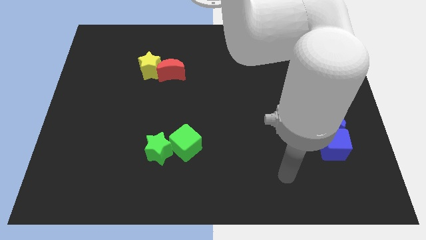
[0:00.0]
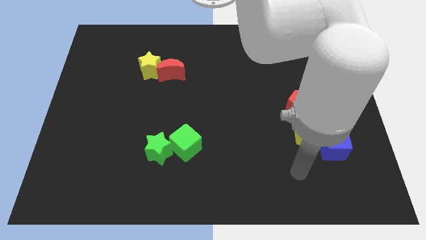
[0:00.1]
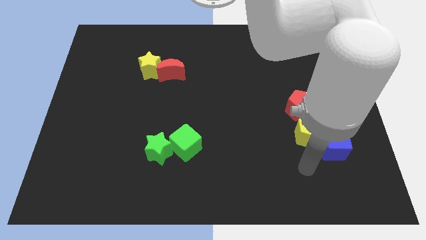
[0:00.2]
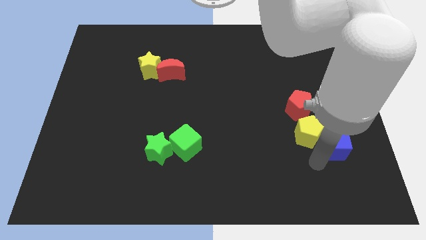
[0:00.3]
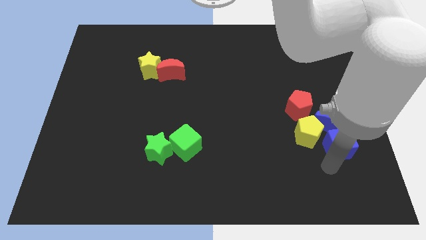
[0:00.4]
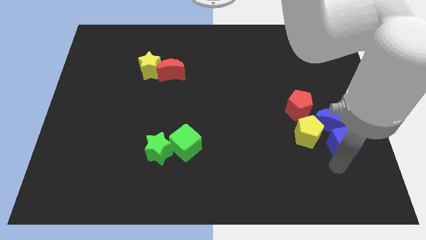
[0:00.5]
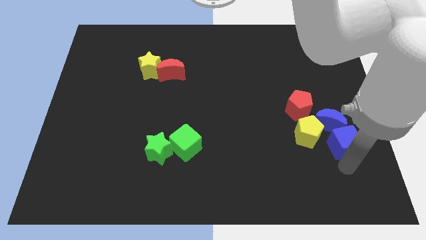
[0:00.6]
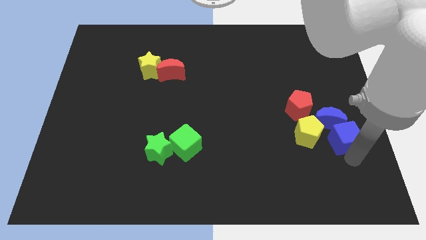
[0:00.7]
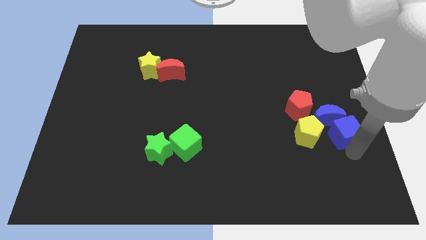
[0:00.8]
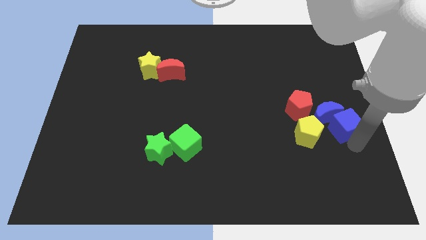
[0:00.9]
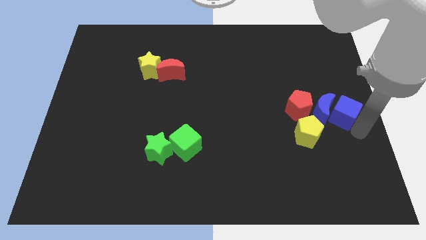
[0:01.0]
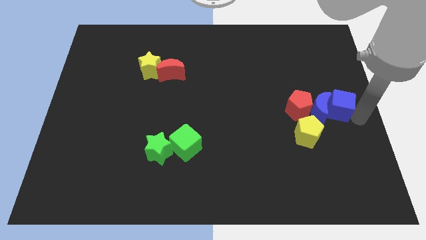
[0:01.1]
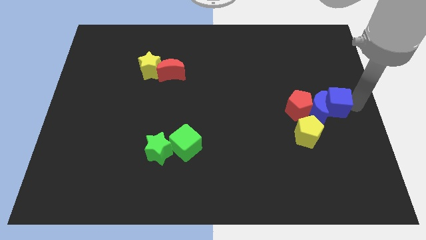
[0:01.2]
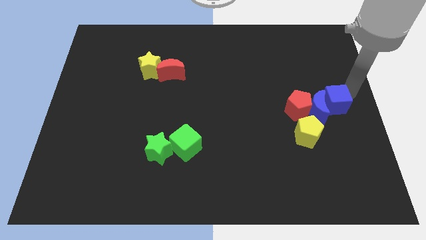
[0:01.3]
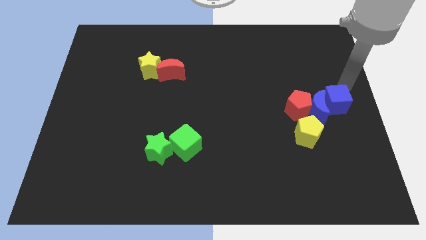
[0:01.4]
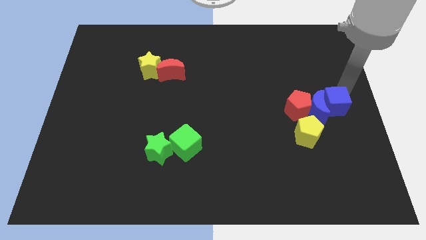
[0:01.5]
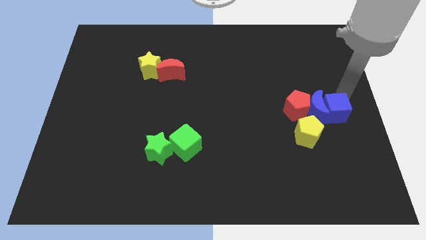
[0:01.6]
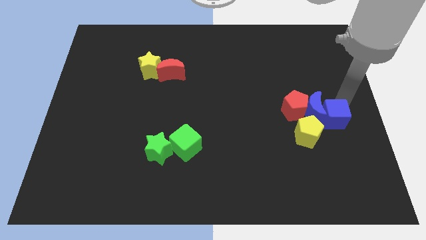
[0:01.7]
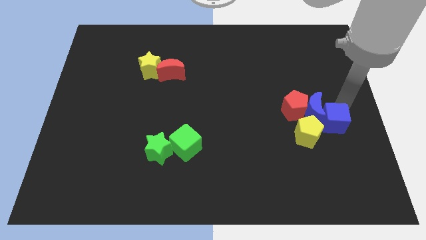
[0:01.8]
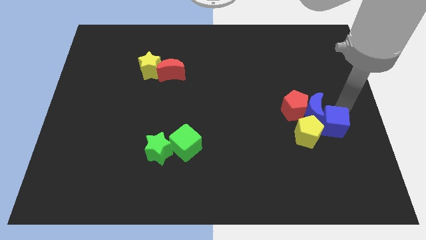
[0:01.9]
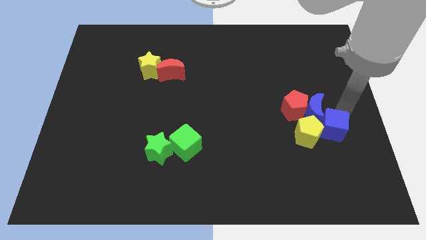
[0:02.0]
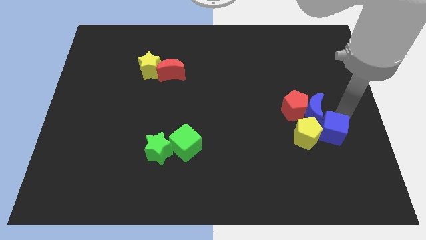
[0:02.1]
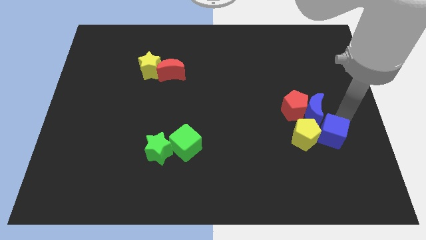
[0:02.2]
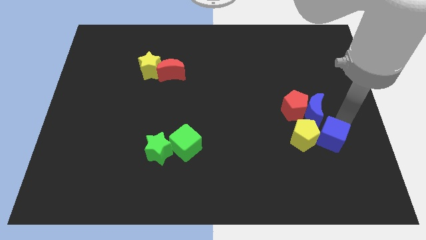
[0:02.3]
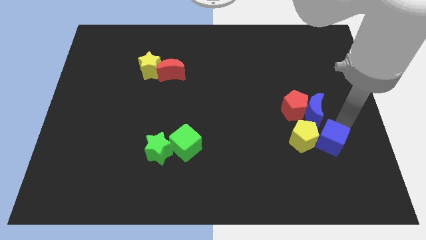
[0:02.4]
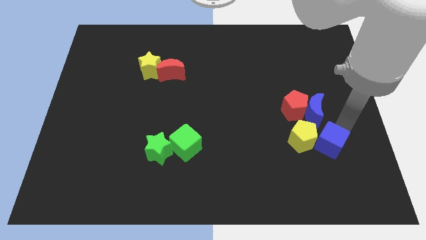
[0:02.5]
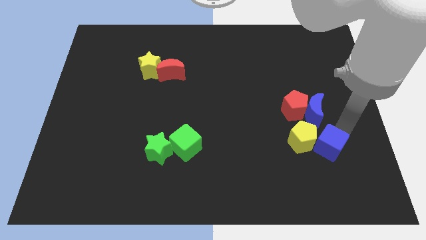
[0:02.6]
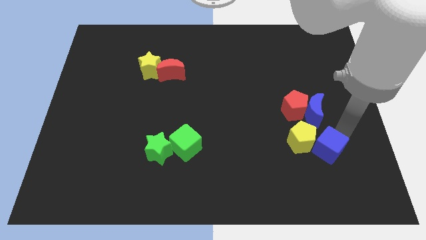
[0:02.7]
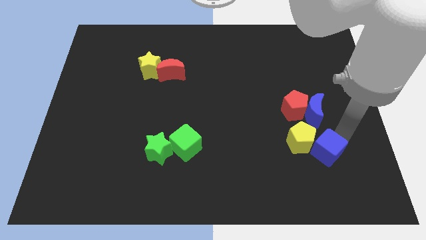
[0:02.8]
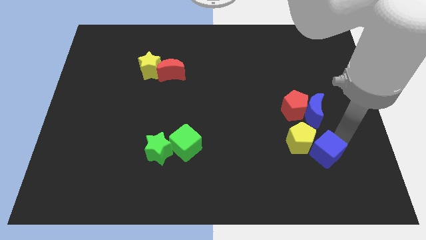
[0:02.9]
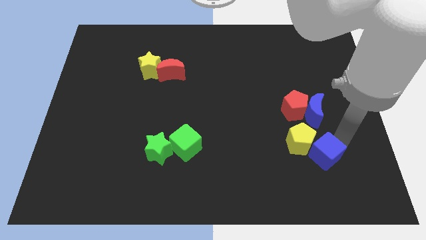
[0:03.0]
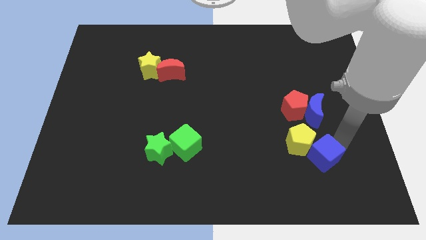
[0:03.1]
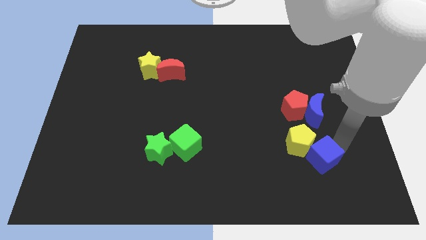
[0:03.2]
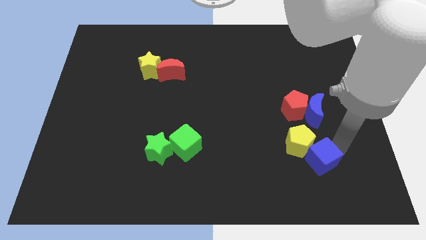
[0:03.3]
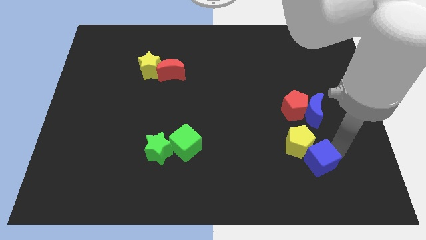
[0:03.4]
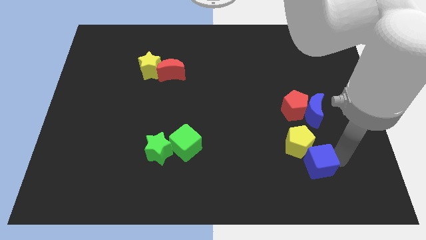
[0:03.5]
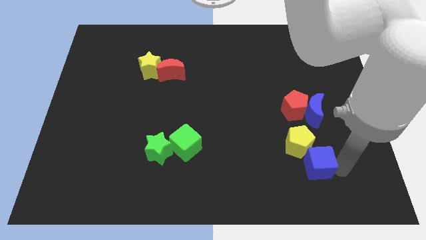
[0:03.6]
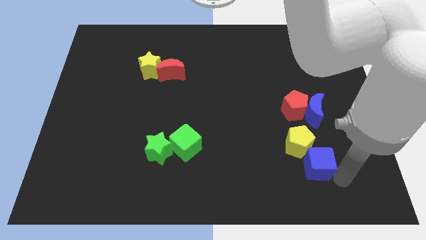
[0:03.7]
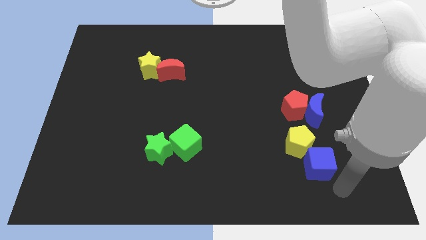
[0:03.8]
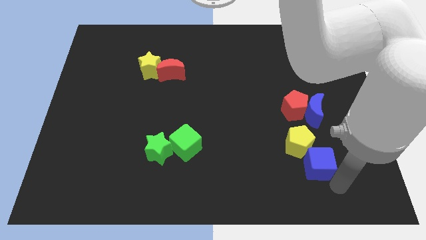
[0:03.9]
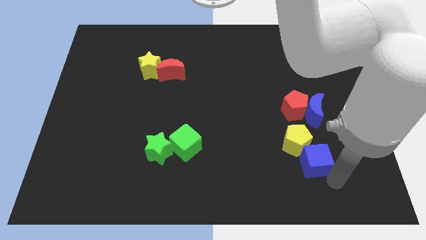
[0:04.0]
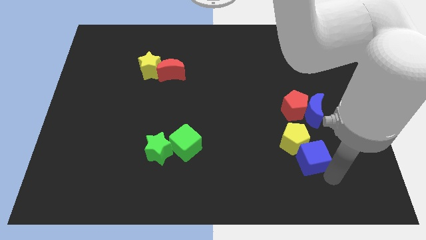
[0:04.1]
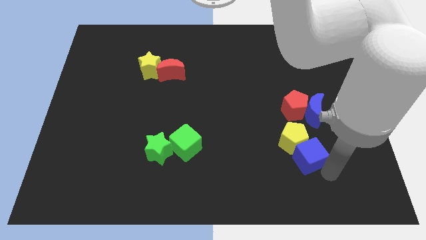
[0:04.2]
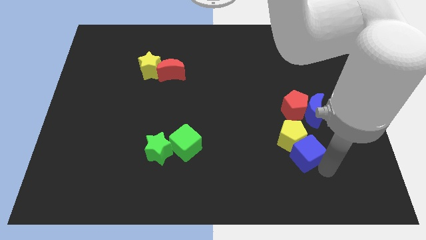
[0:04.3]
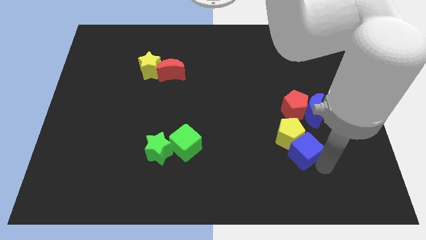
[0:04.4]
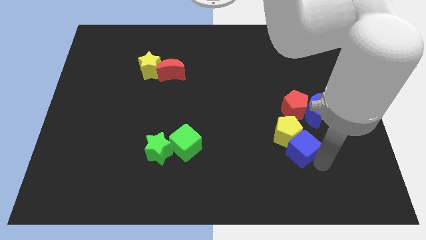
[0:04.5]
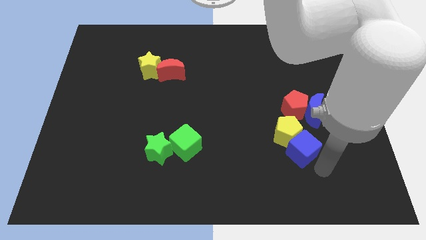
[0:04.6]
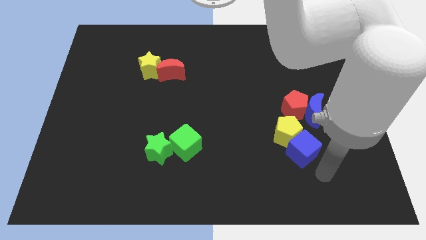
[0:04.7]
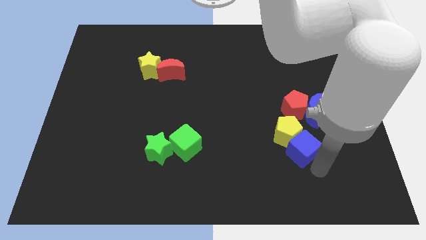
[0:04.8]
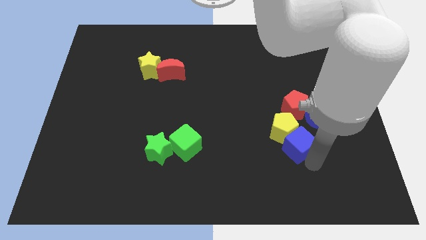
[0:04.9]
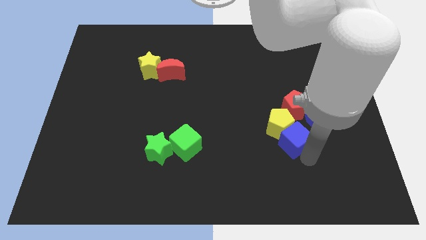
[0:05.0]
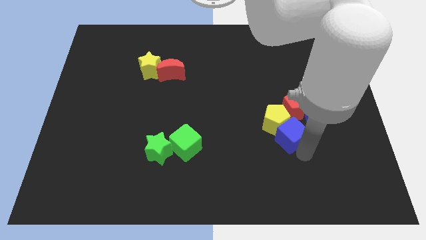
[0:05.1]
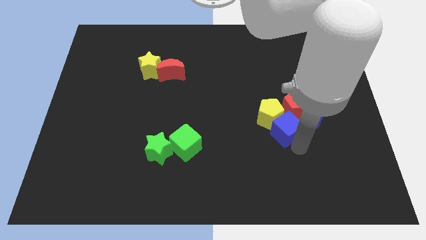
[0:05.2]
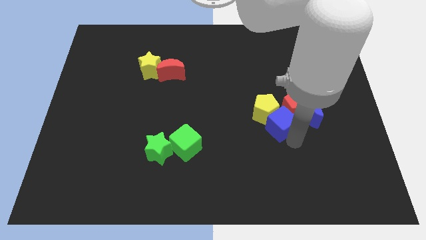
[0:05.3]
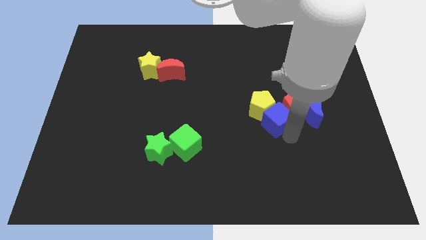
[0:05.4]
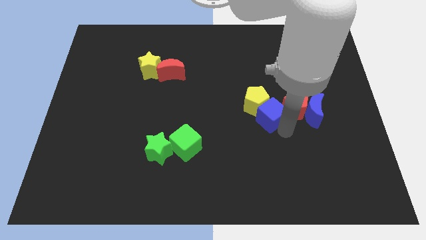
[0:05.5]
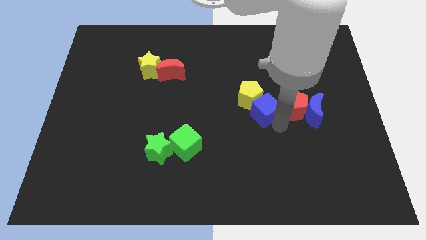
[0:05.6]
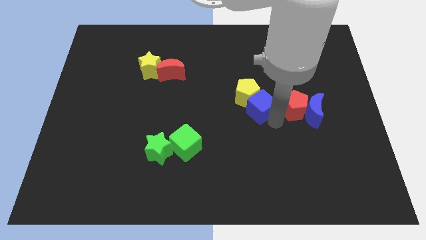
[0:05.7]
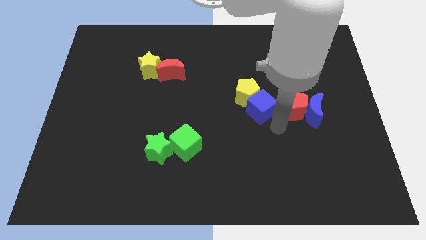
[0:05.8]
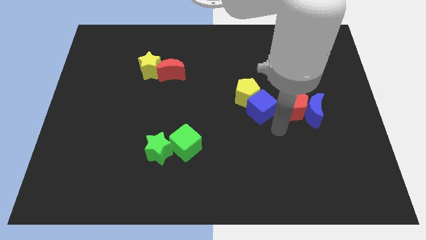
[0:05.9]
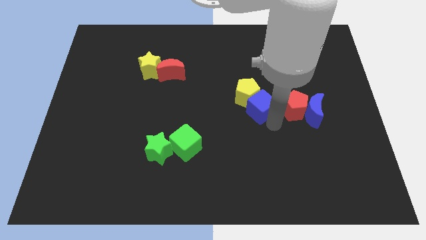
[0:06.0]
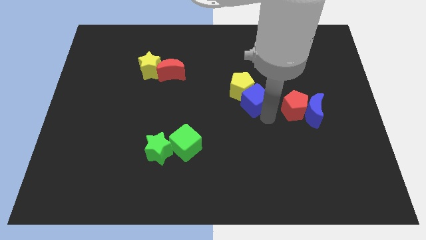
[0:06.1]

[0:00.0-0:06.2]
slide the blue cube diagonally up and to the left

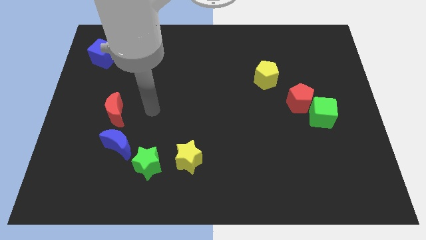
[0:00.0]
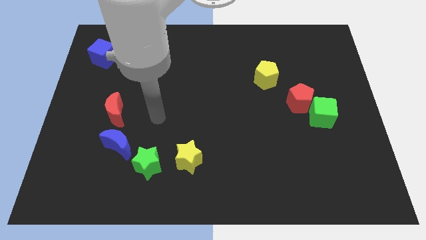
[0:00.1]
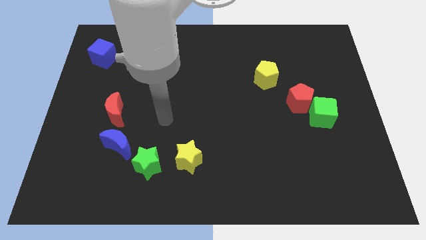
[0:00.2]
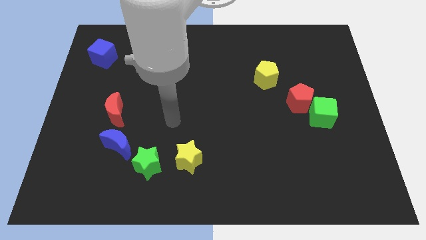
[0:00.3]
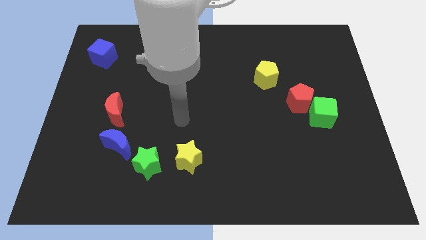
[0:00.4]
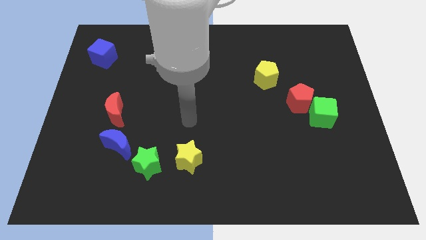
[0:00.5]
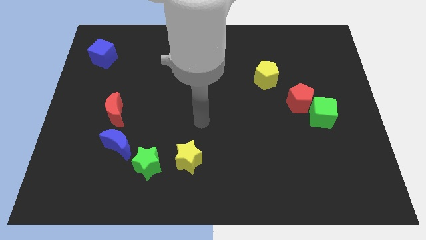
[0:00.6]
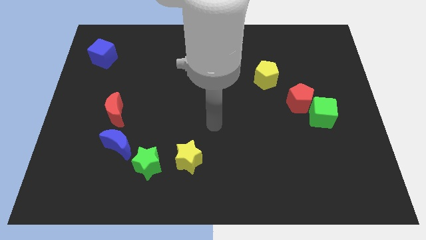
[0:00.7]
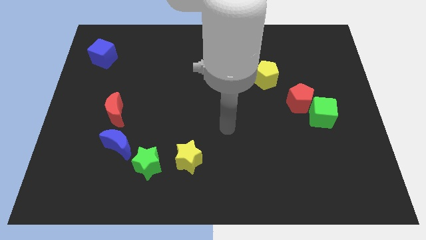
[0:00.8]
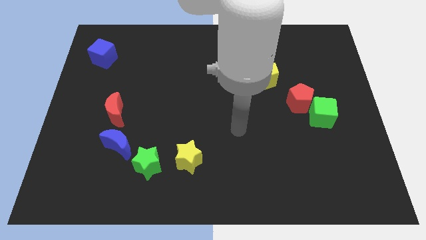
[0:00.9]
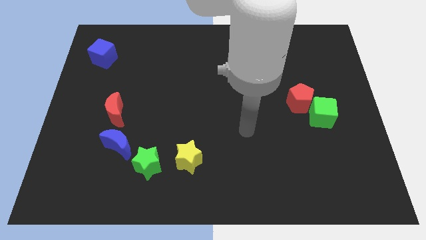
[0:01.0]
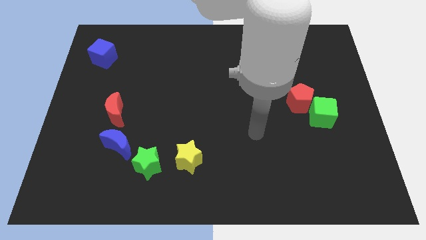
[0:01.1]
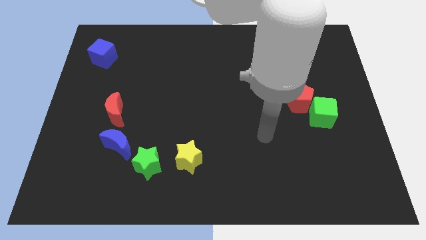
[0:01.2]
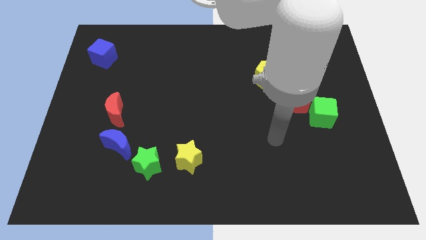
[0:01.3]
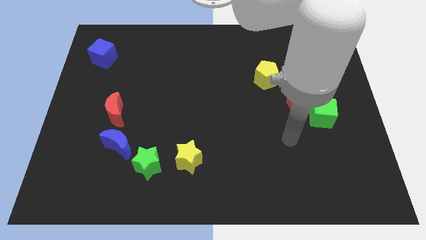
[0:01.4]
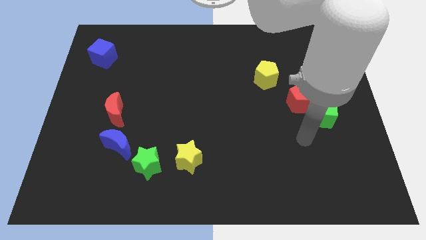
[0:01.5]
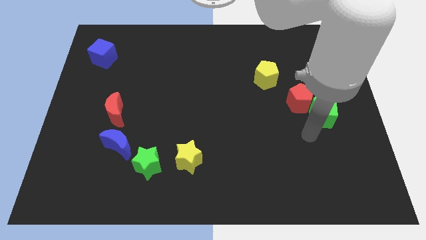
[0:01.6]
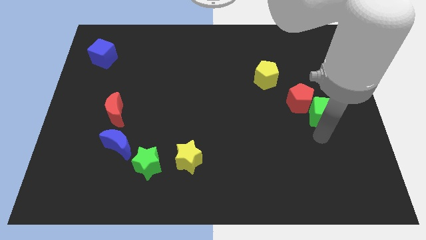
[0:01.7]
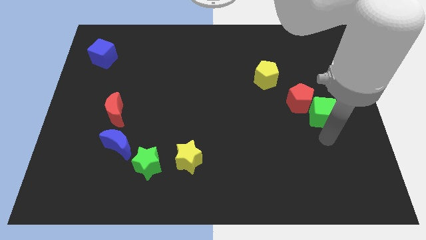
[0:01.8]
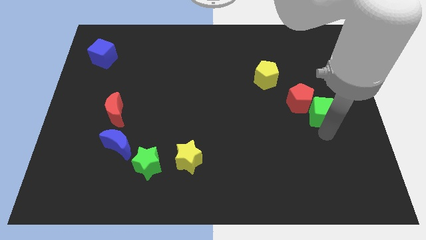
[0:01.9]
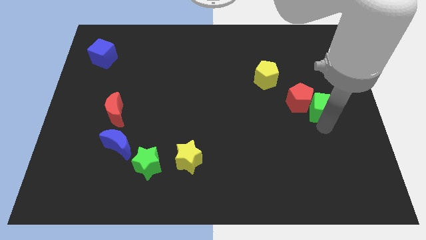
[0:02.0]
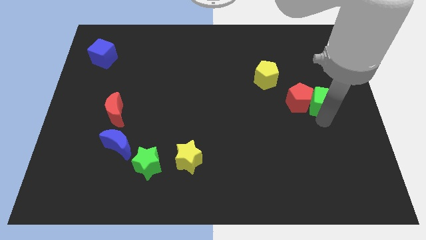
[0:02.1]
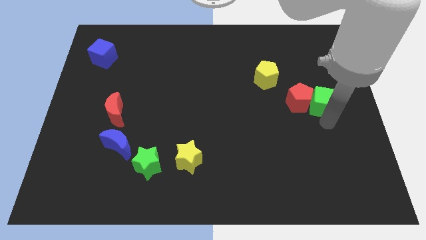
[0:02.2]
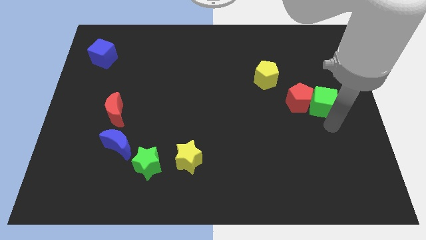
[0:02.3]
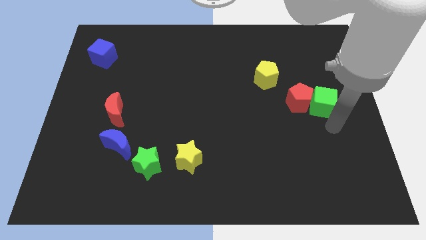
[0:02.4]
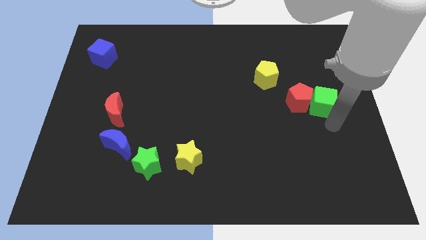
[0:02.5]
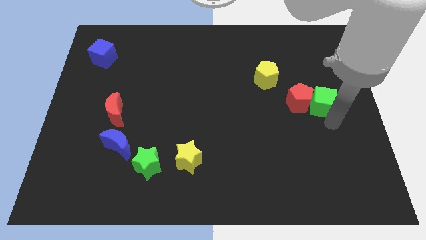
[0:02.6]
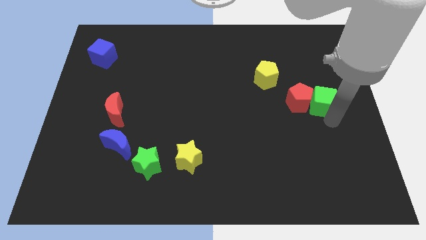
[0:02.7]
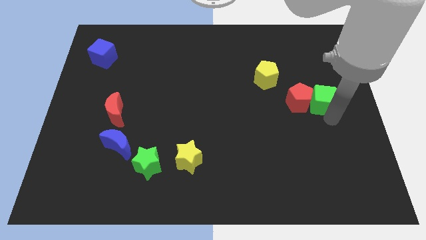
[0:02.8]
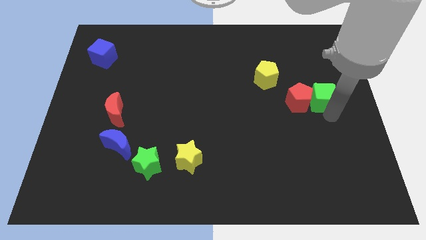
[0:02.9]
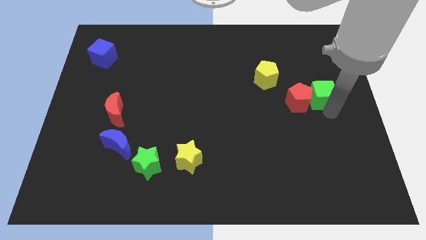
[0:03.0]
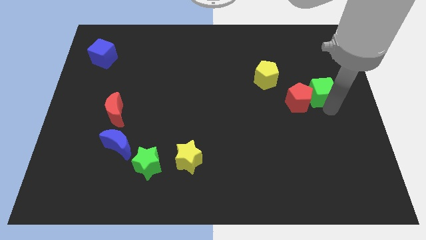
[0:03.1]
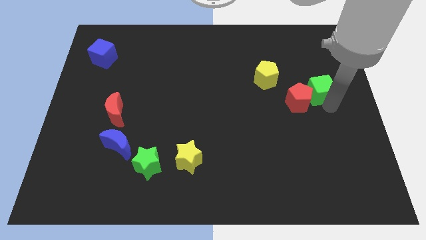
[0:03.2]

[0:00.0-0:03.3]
slide the green cube slightly upwards
